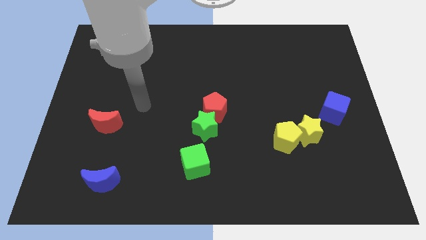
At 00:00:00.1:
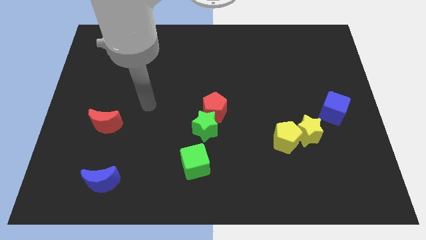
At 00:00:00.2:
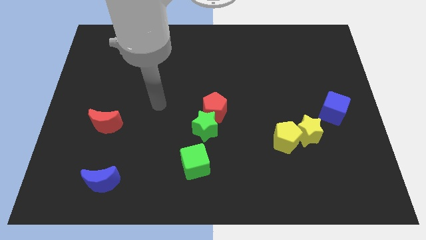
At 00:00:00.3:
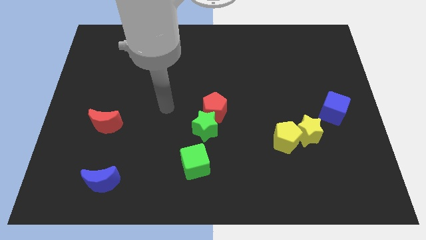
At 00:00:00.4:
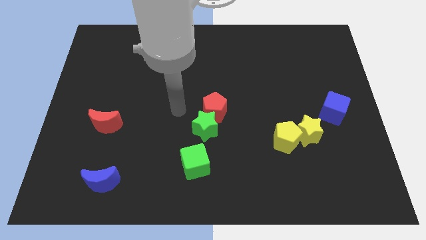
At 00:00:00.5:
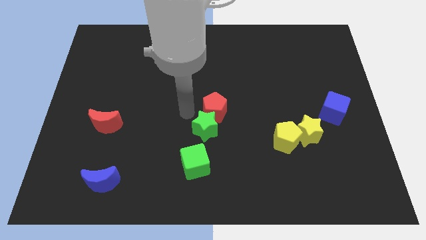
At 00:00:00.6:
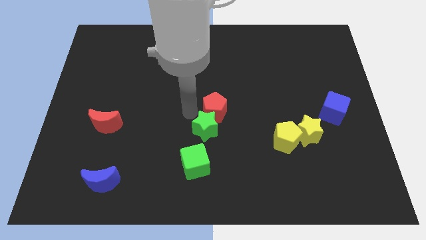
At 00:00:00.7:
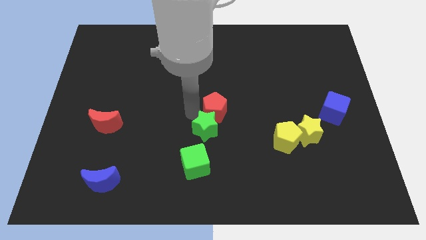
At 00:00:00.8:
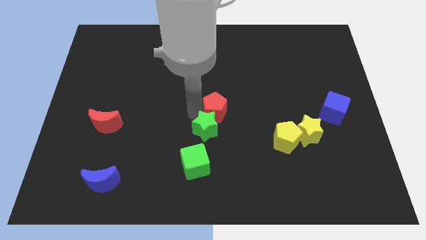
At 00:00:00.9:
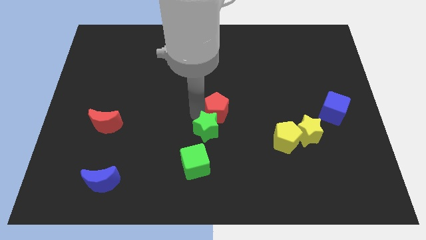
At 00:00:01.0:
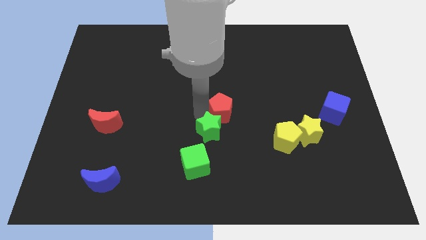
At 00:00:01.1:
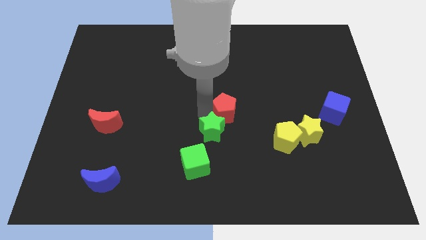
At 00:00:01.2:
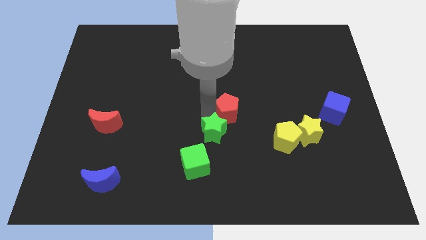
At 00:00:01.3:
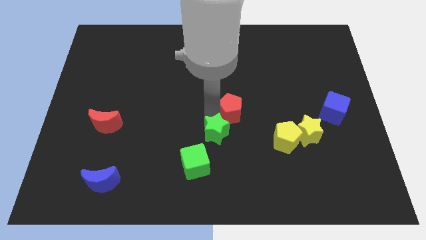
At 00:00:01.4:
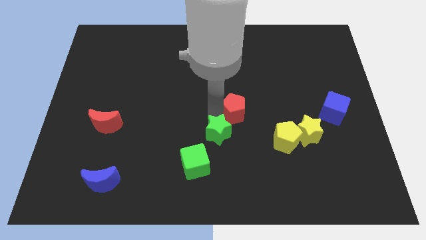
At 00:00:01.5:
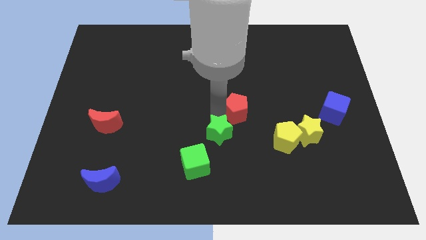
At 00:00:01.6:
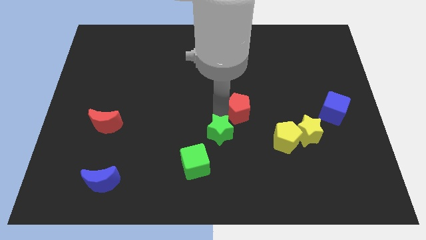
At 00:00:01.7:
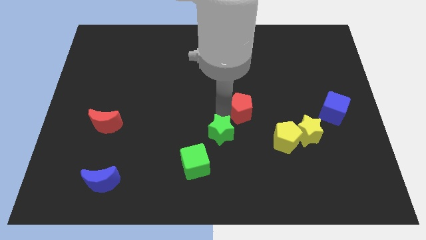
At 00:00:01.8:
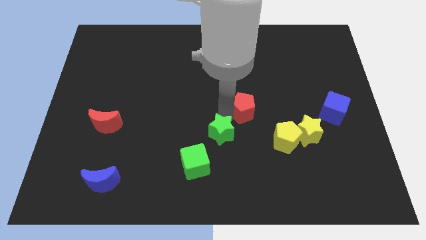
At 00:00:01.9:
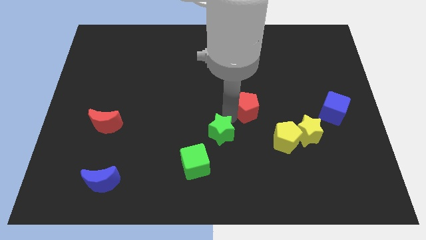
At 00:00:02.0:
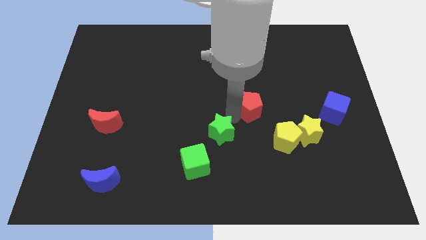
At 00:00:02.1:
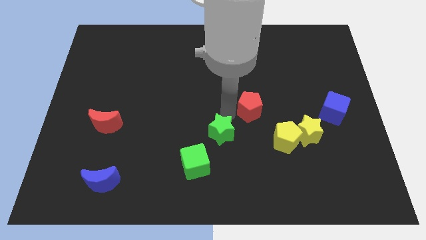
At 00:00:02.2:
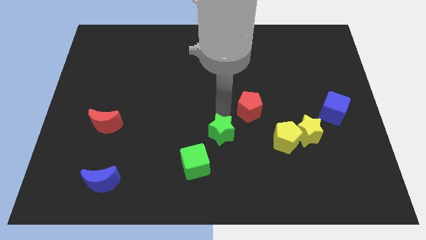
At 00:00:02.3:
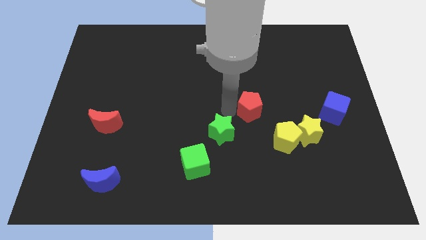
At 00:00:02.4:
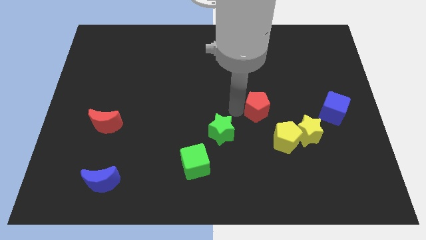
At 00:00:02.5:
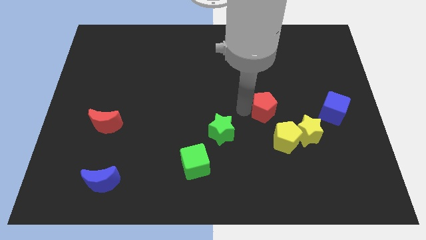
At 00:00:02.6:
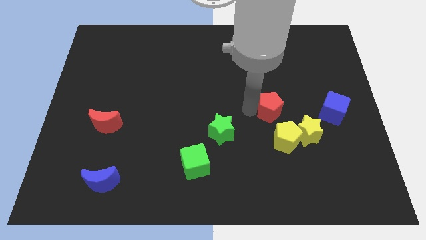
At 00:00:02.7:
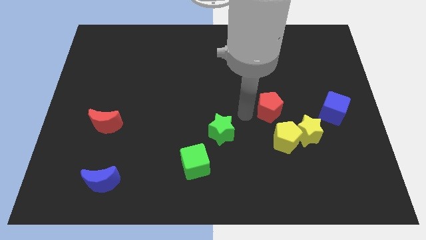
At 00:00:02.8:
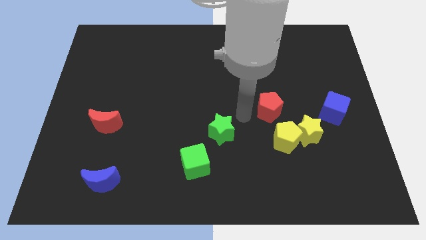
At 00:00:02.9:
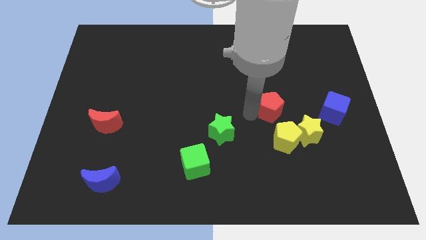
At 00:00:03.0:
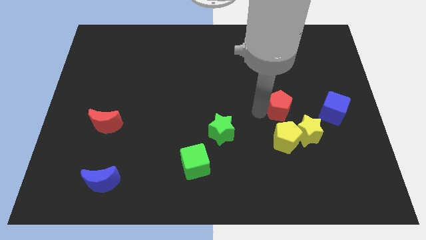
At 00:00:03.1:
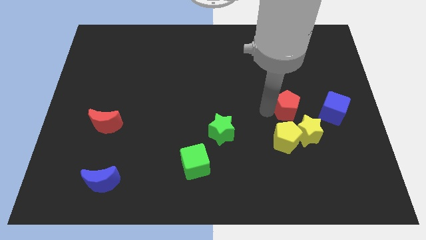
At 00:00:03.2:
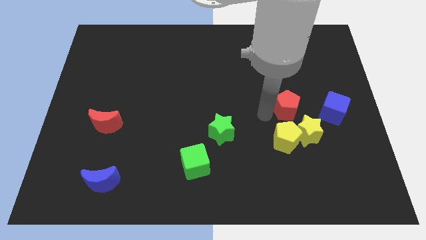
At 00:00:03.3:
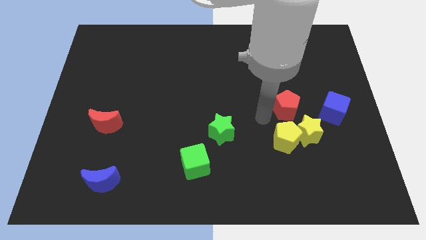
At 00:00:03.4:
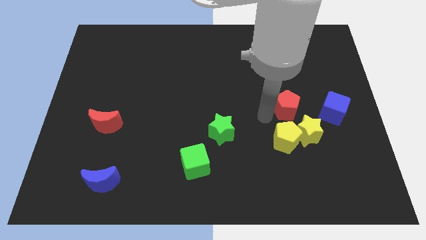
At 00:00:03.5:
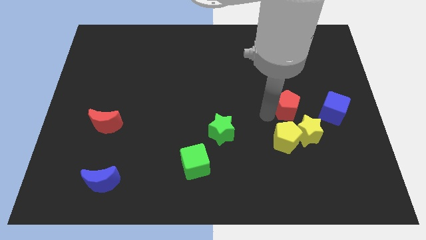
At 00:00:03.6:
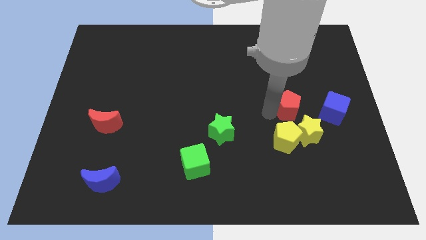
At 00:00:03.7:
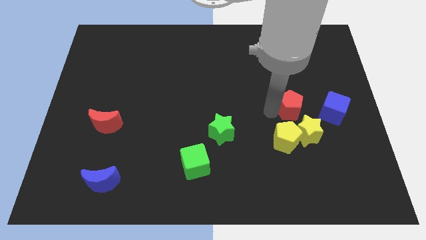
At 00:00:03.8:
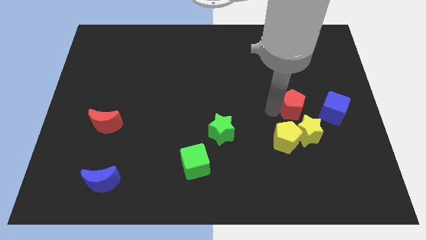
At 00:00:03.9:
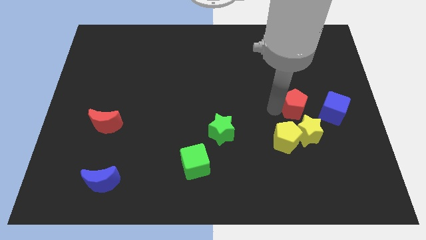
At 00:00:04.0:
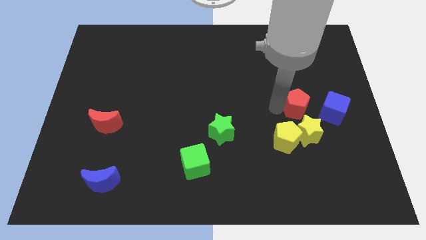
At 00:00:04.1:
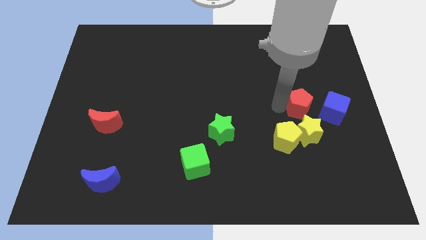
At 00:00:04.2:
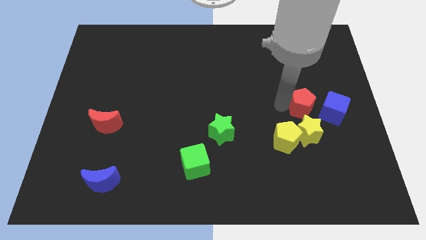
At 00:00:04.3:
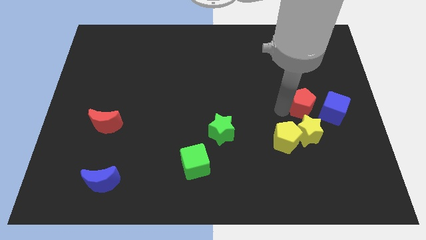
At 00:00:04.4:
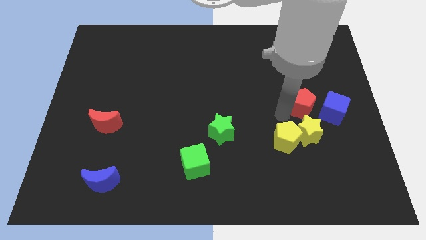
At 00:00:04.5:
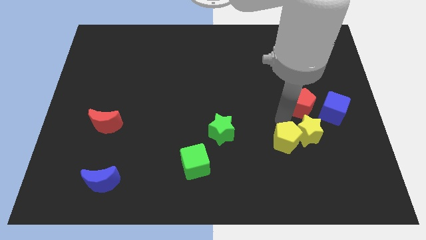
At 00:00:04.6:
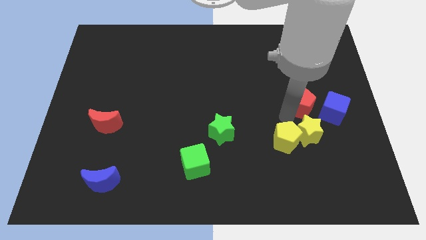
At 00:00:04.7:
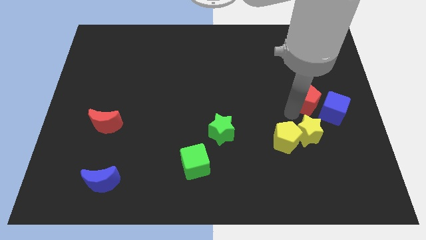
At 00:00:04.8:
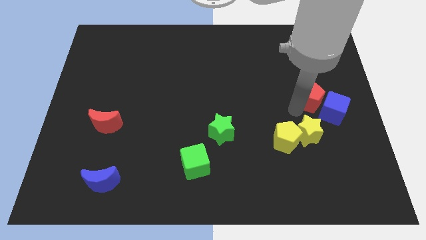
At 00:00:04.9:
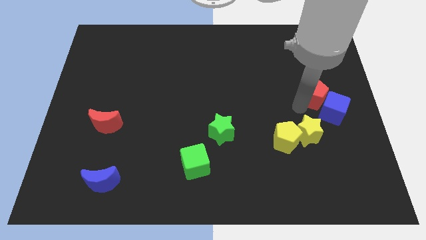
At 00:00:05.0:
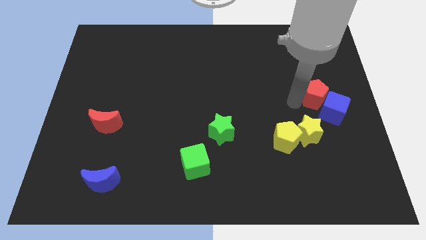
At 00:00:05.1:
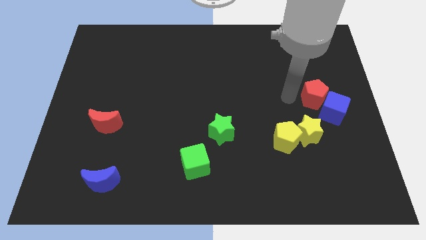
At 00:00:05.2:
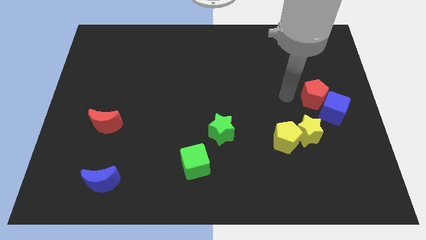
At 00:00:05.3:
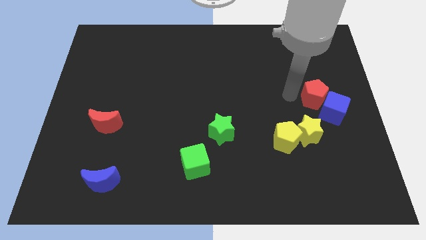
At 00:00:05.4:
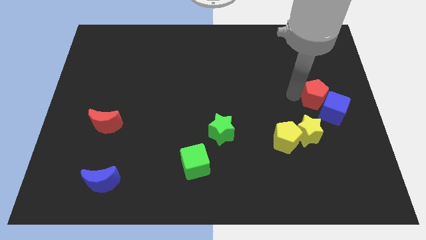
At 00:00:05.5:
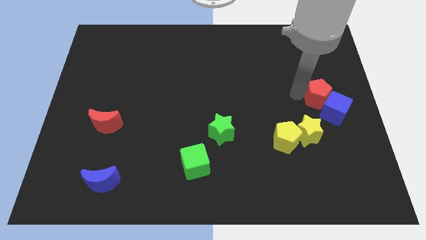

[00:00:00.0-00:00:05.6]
push the red pentagon to the right side of the board

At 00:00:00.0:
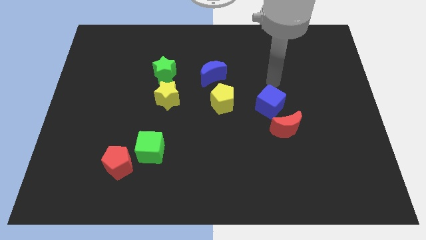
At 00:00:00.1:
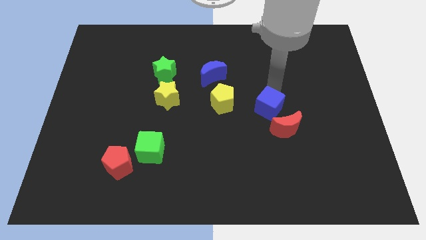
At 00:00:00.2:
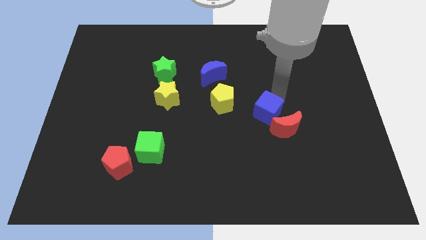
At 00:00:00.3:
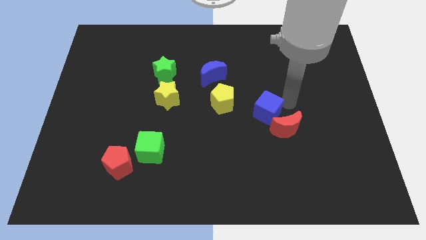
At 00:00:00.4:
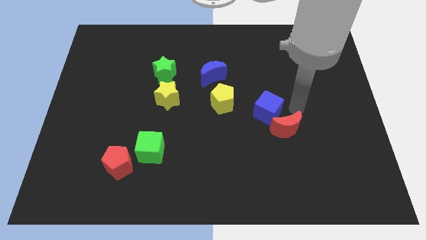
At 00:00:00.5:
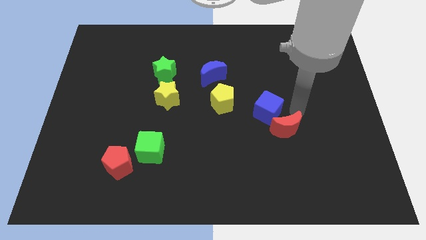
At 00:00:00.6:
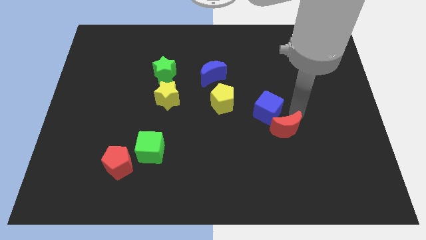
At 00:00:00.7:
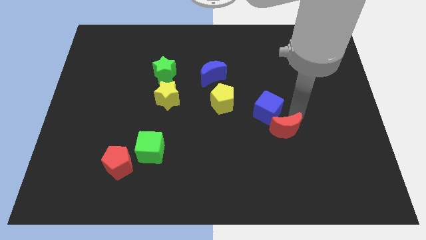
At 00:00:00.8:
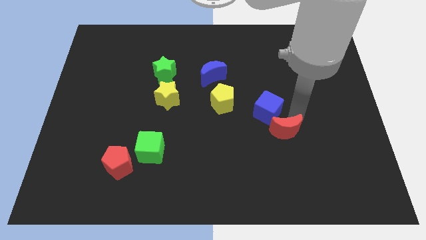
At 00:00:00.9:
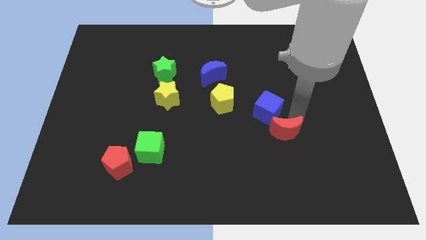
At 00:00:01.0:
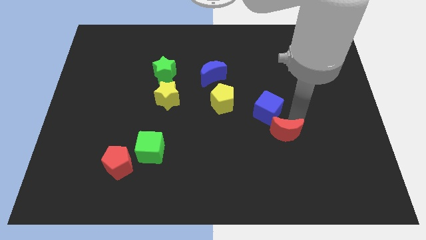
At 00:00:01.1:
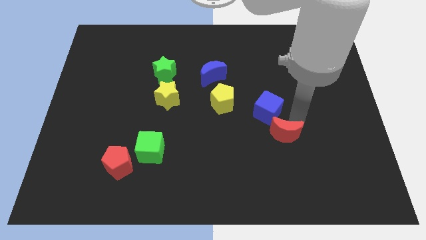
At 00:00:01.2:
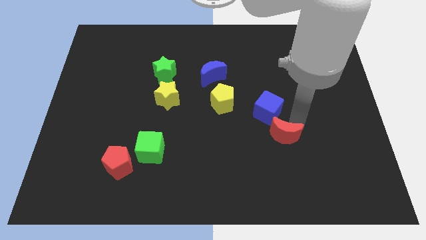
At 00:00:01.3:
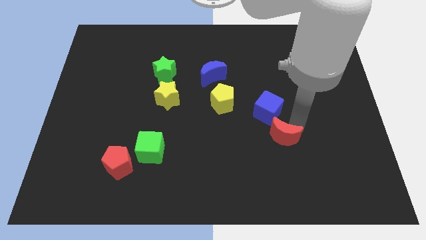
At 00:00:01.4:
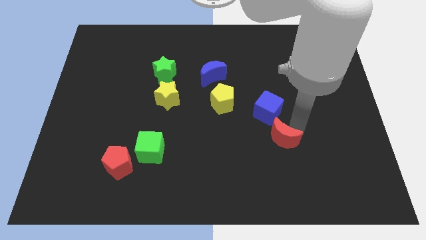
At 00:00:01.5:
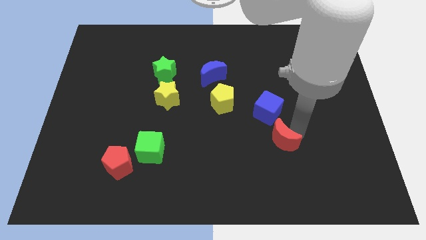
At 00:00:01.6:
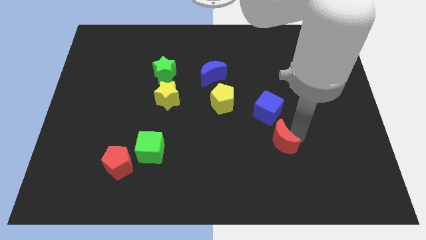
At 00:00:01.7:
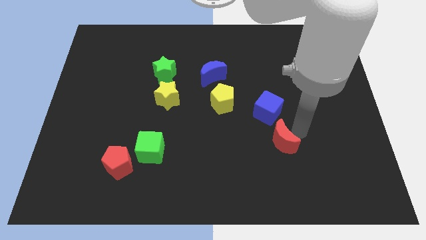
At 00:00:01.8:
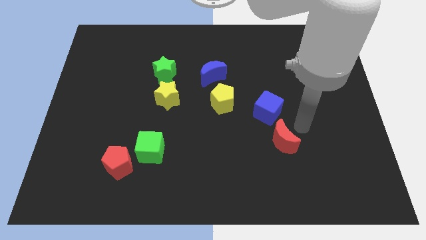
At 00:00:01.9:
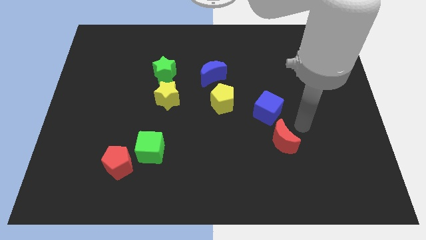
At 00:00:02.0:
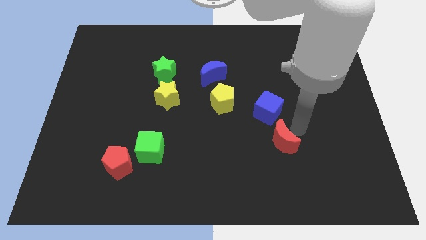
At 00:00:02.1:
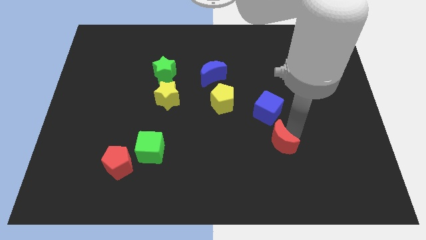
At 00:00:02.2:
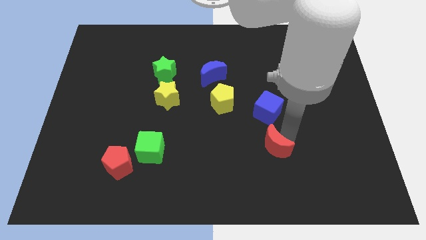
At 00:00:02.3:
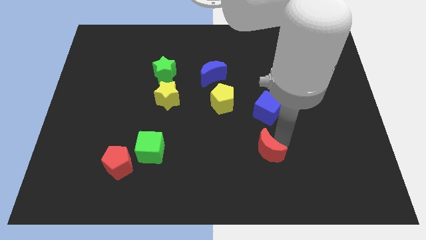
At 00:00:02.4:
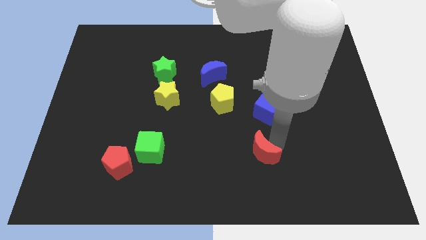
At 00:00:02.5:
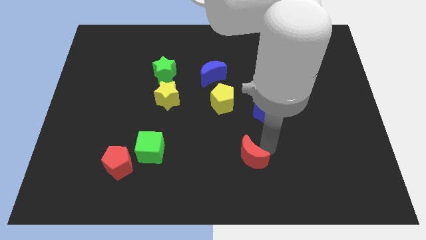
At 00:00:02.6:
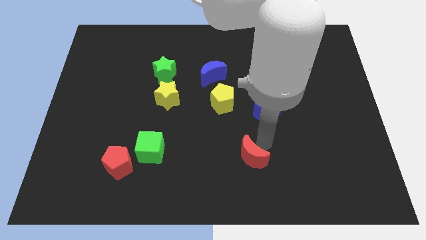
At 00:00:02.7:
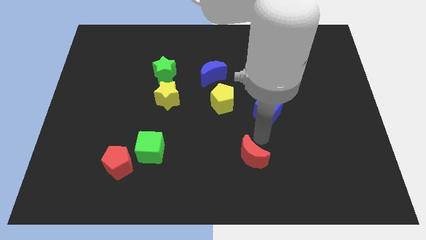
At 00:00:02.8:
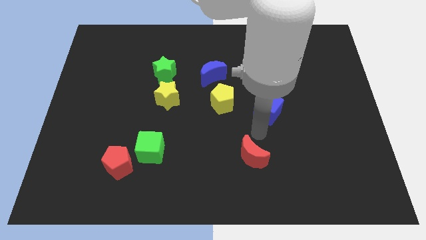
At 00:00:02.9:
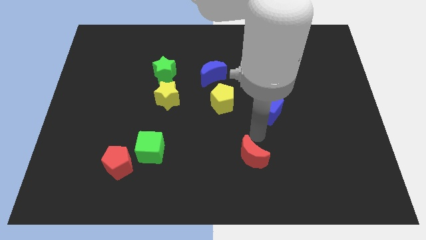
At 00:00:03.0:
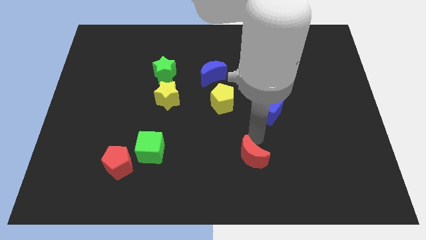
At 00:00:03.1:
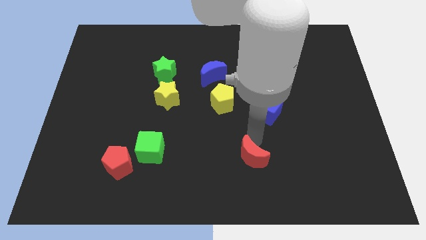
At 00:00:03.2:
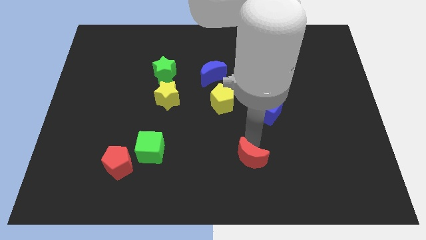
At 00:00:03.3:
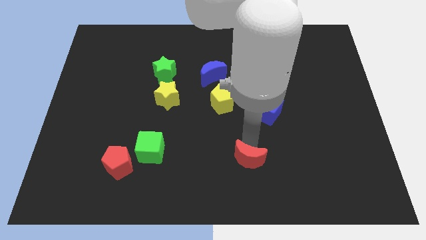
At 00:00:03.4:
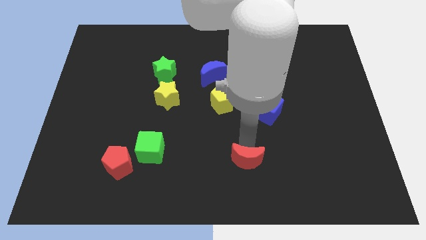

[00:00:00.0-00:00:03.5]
put the red moon to the bottom side
